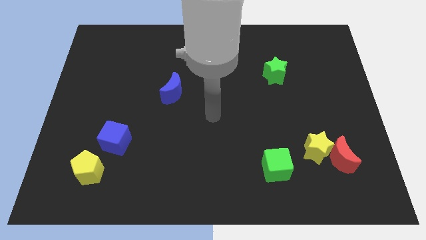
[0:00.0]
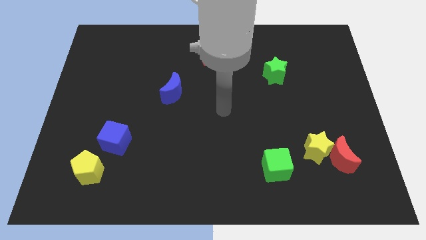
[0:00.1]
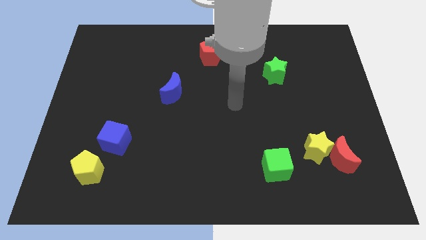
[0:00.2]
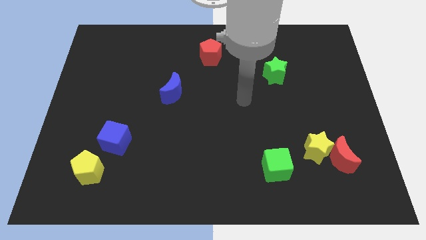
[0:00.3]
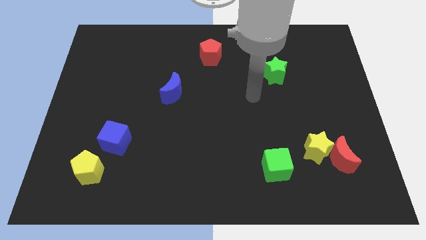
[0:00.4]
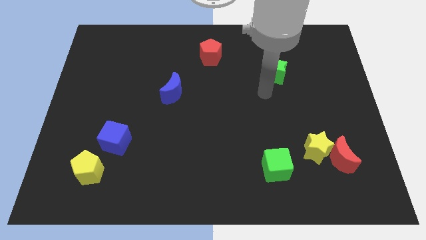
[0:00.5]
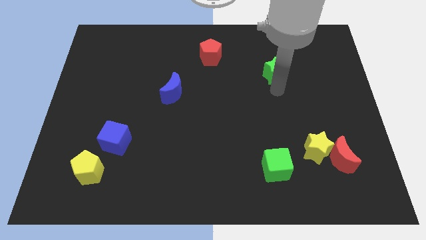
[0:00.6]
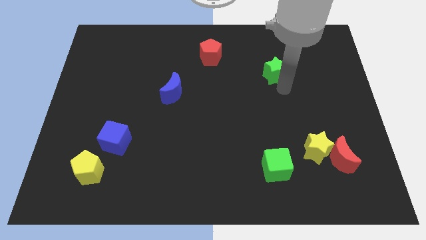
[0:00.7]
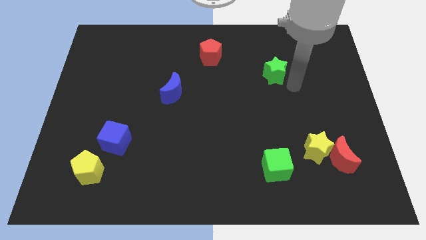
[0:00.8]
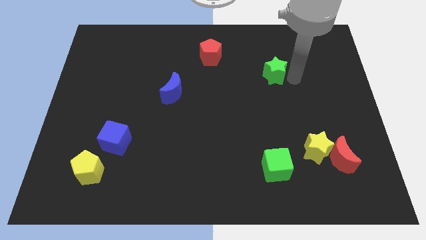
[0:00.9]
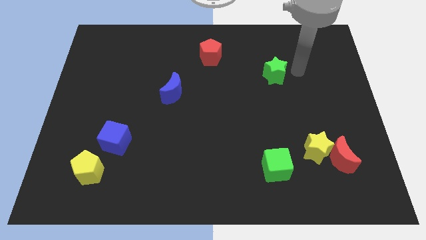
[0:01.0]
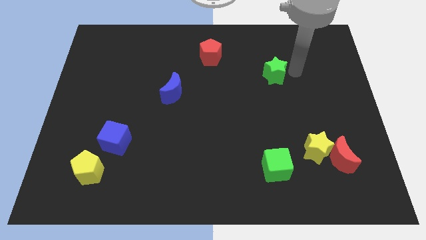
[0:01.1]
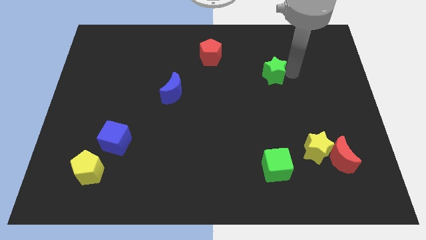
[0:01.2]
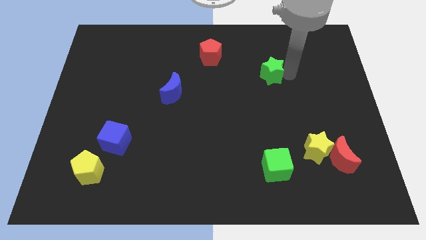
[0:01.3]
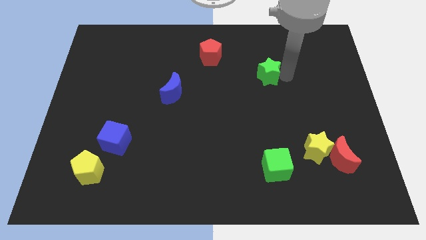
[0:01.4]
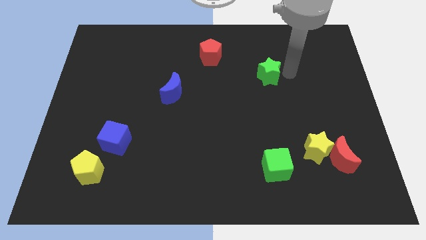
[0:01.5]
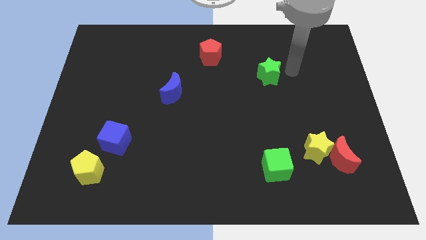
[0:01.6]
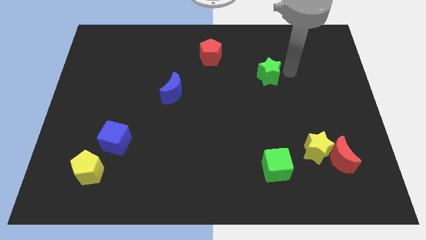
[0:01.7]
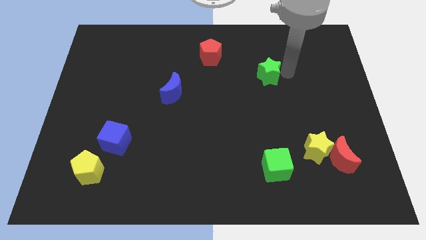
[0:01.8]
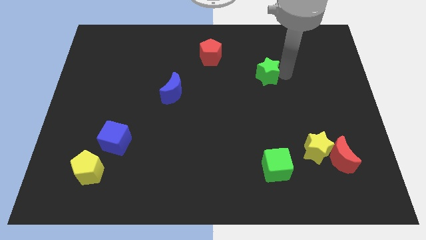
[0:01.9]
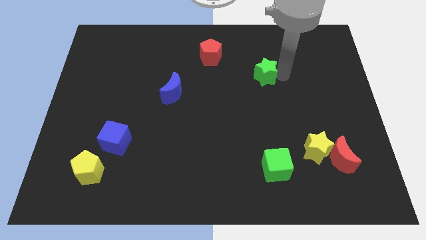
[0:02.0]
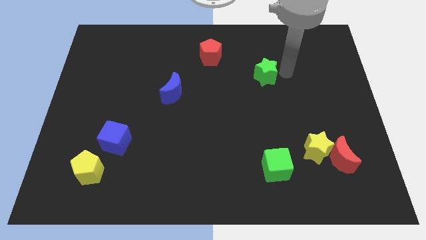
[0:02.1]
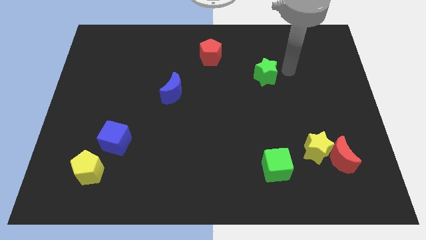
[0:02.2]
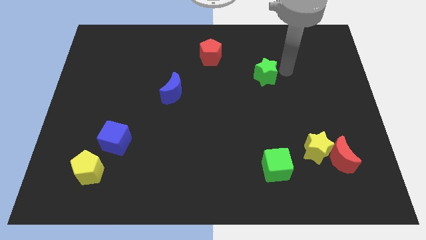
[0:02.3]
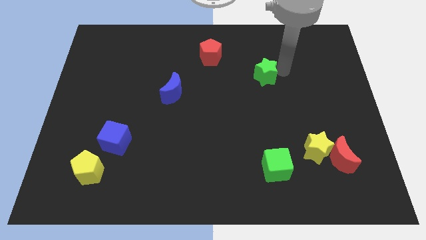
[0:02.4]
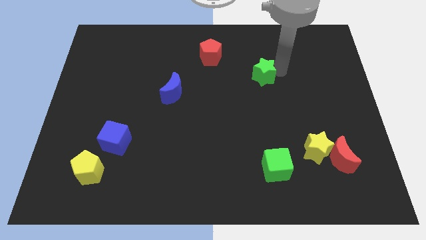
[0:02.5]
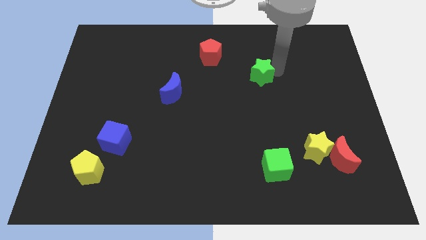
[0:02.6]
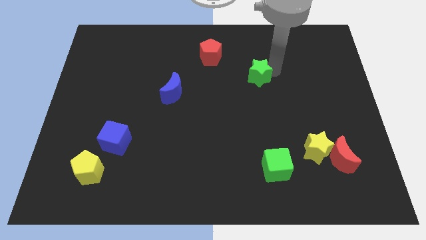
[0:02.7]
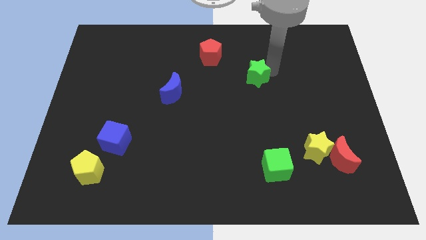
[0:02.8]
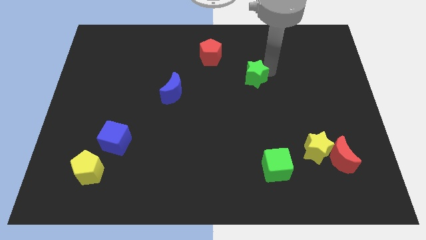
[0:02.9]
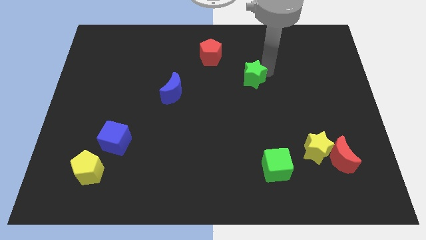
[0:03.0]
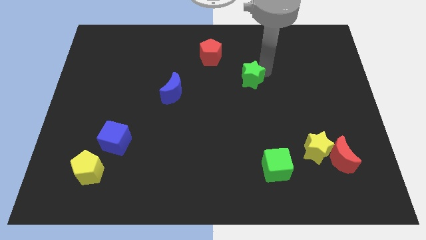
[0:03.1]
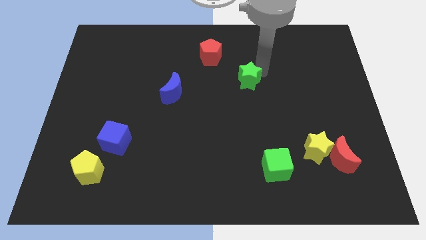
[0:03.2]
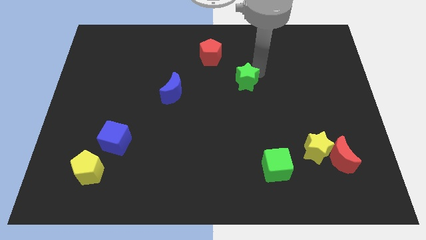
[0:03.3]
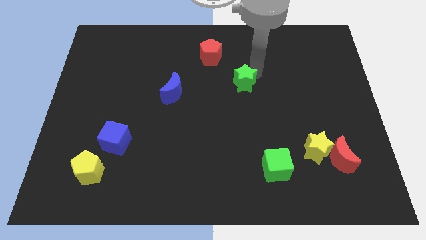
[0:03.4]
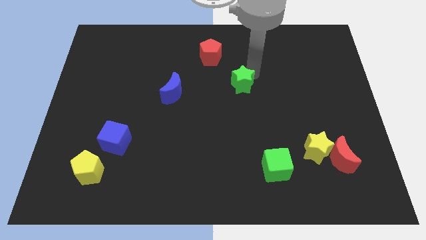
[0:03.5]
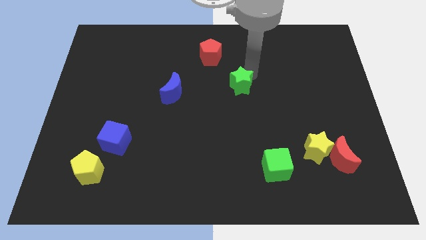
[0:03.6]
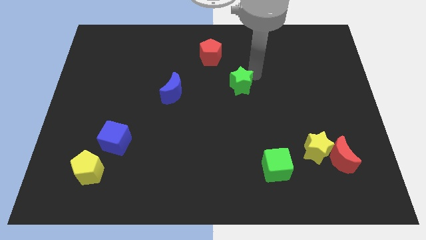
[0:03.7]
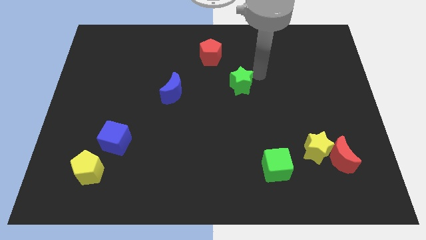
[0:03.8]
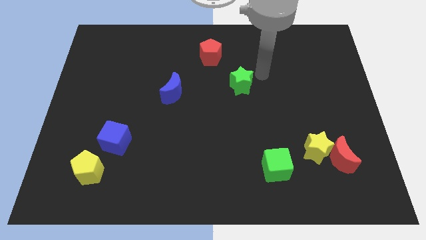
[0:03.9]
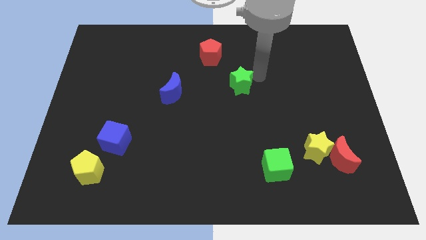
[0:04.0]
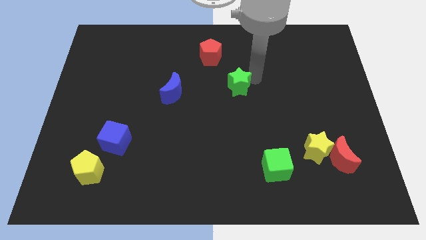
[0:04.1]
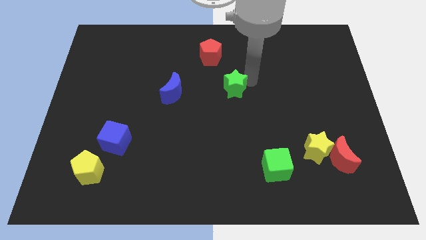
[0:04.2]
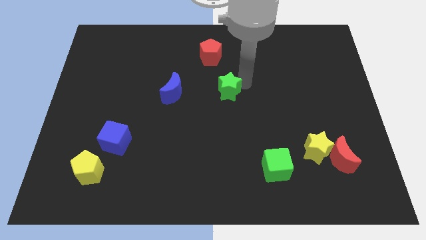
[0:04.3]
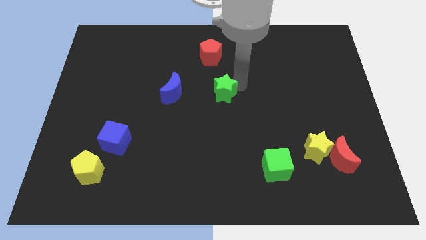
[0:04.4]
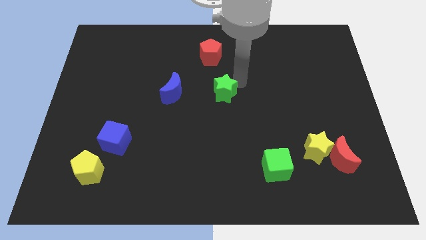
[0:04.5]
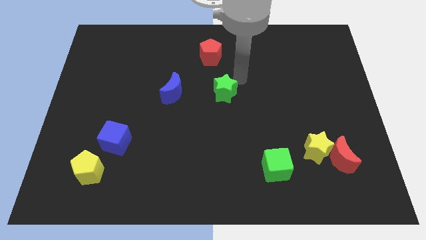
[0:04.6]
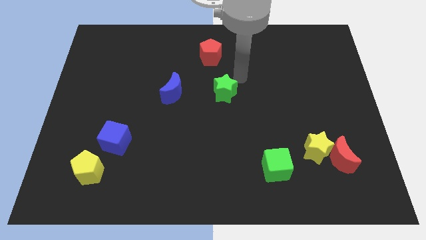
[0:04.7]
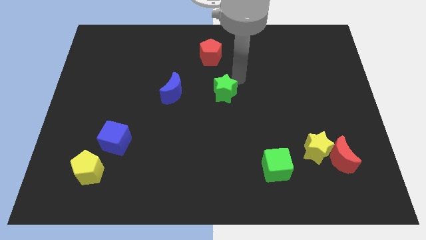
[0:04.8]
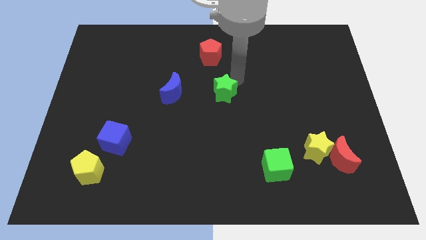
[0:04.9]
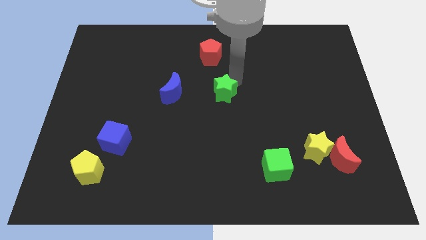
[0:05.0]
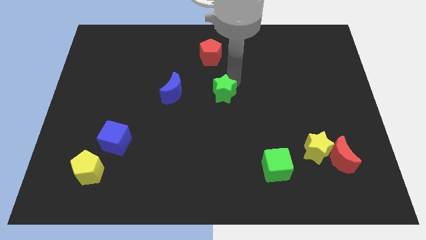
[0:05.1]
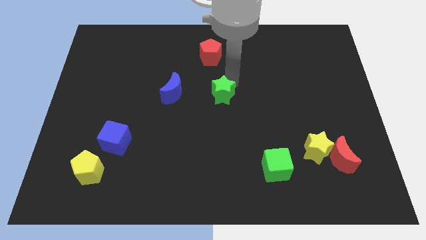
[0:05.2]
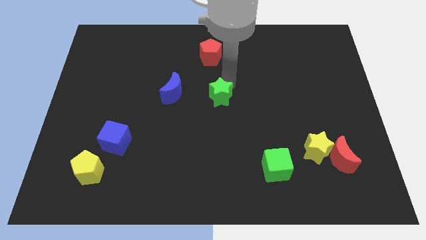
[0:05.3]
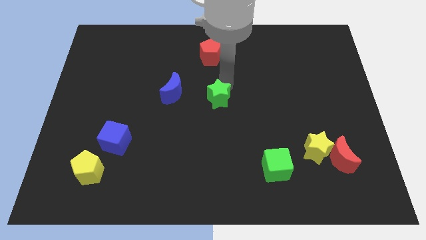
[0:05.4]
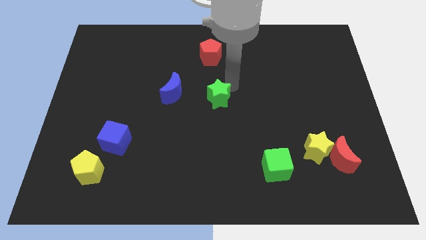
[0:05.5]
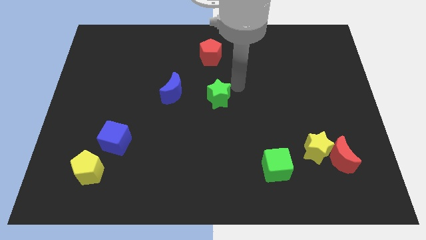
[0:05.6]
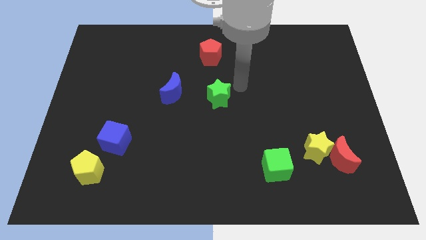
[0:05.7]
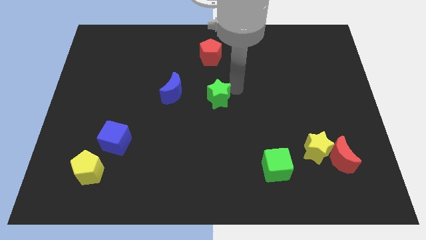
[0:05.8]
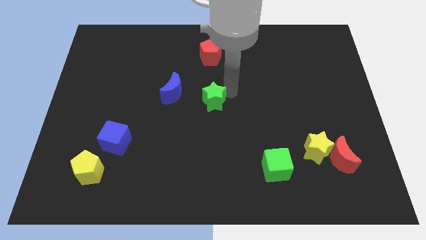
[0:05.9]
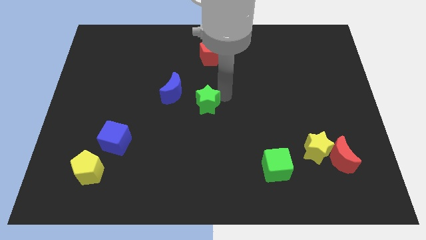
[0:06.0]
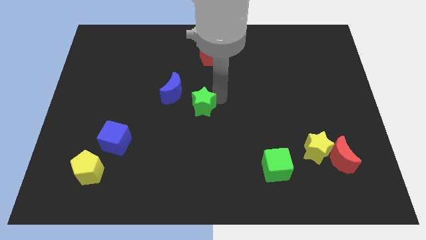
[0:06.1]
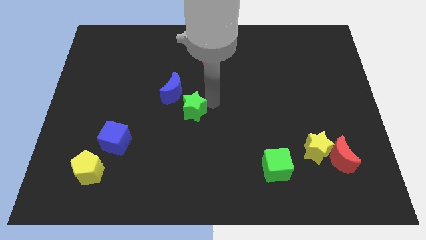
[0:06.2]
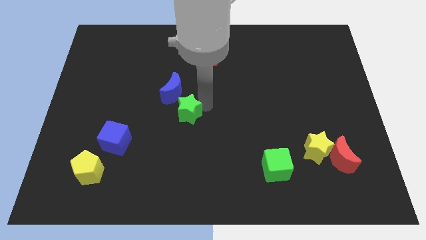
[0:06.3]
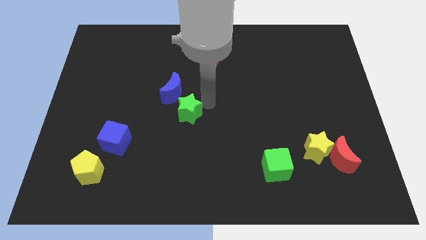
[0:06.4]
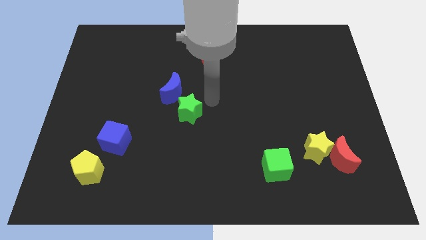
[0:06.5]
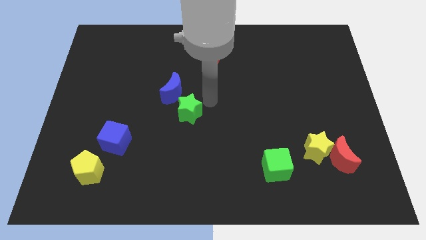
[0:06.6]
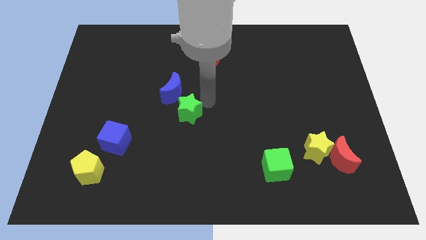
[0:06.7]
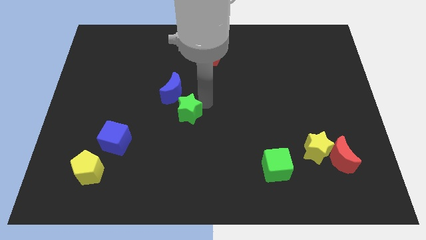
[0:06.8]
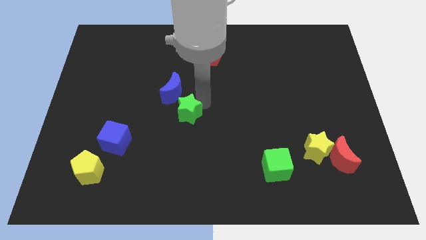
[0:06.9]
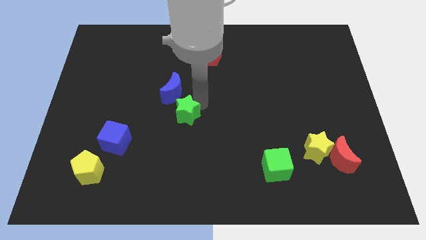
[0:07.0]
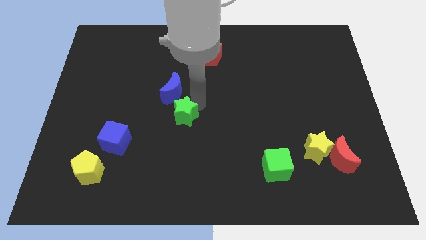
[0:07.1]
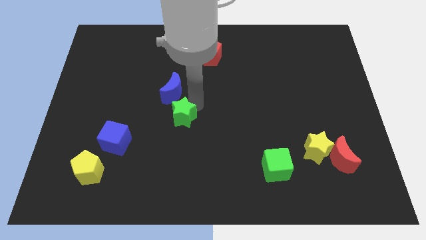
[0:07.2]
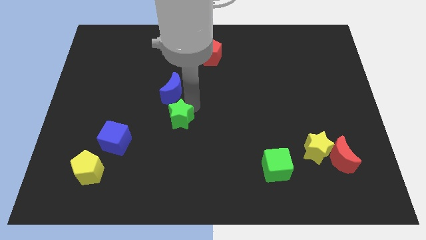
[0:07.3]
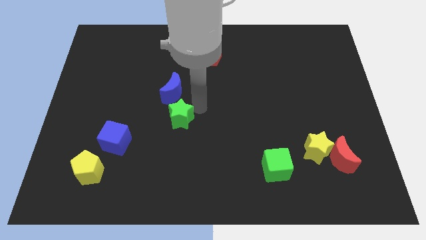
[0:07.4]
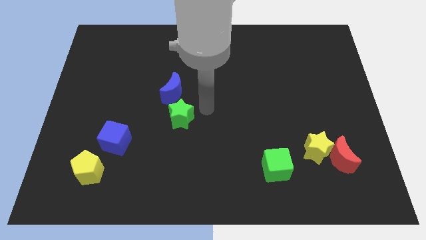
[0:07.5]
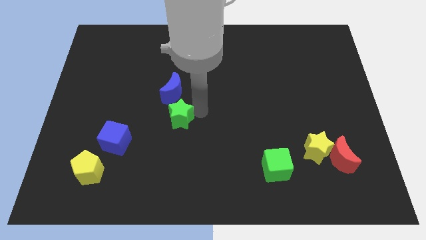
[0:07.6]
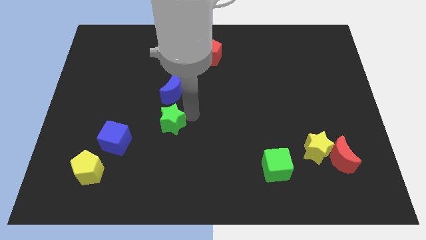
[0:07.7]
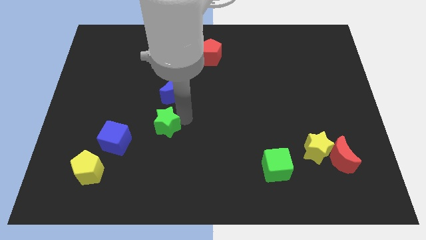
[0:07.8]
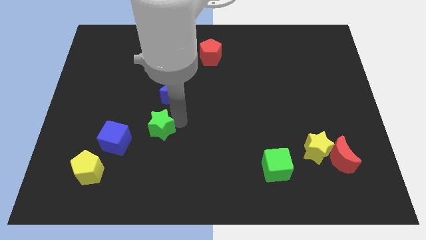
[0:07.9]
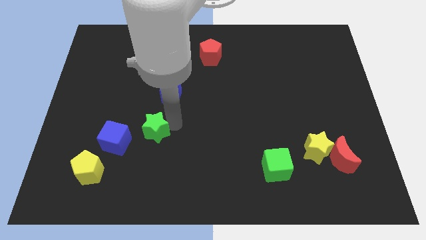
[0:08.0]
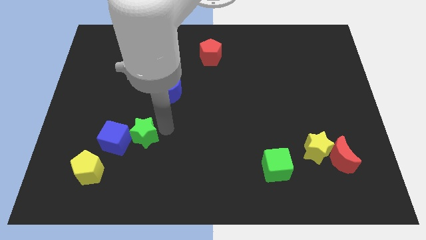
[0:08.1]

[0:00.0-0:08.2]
put the green star next to the blue cube
